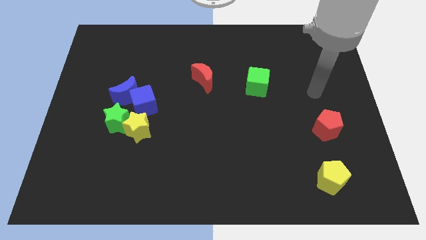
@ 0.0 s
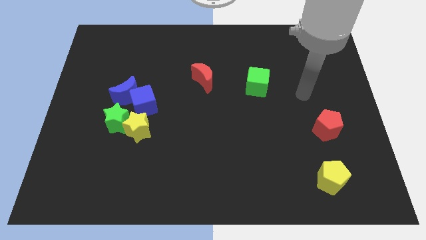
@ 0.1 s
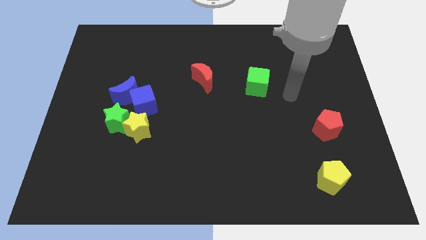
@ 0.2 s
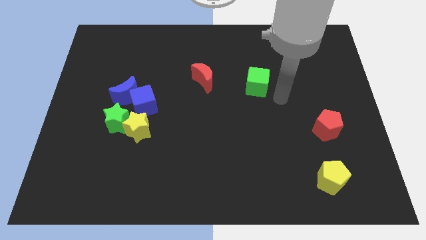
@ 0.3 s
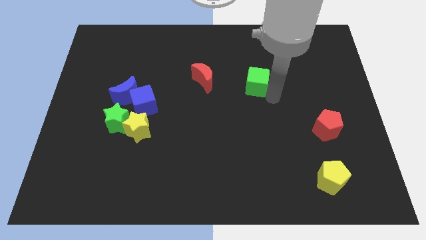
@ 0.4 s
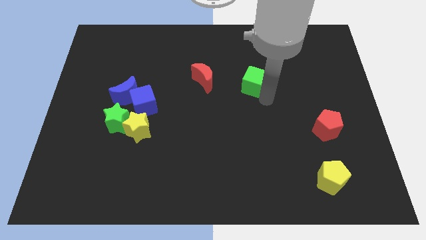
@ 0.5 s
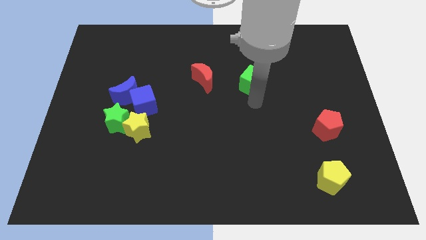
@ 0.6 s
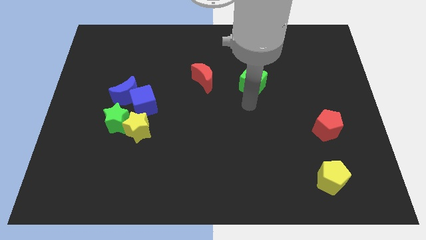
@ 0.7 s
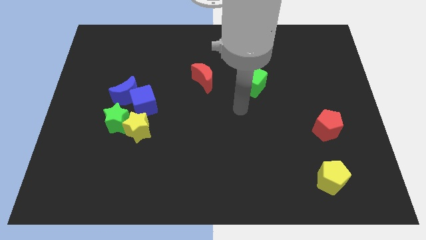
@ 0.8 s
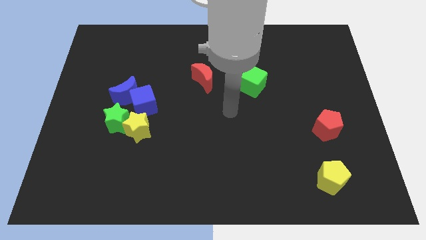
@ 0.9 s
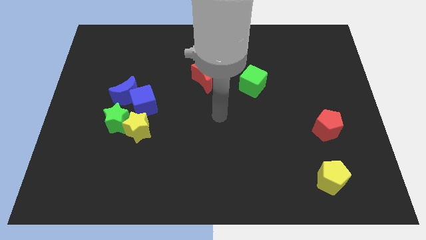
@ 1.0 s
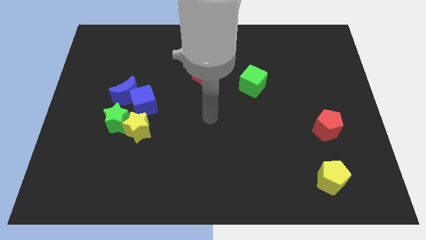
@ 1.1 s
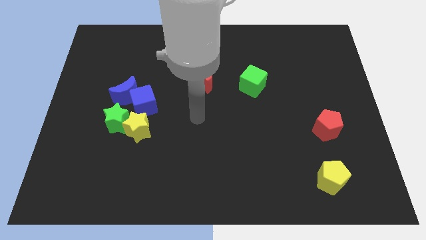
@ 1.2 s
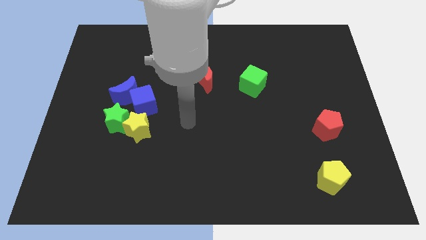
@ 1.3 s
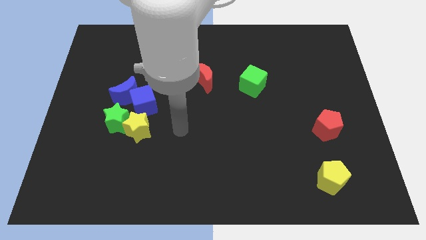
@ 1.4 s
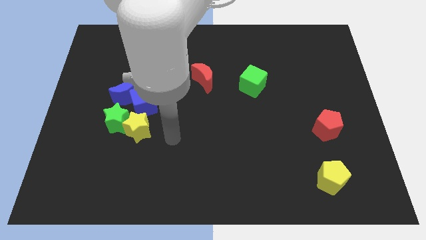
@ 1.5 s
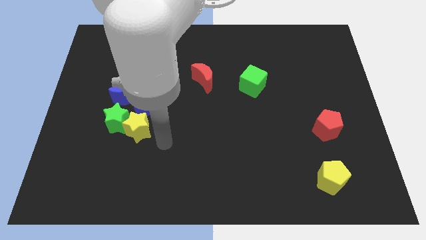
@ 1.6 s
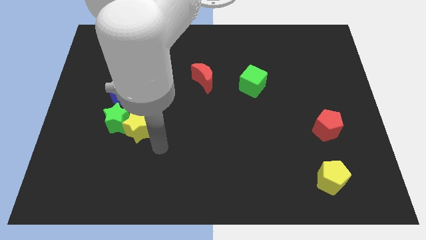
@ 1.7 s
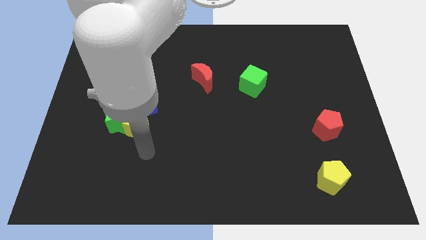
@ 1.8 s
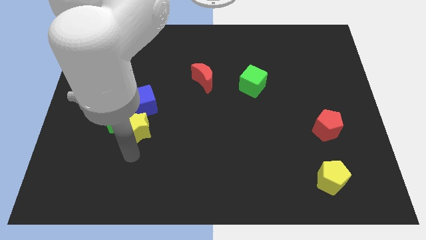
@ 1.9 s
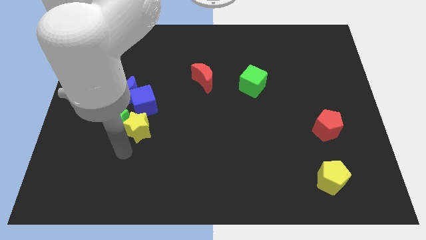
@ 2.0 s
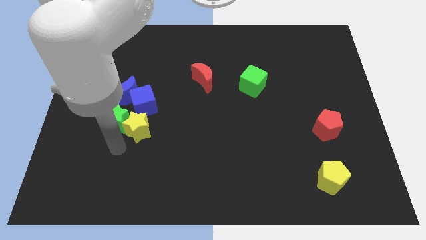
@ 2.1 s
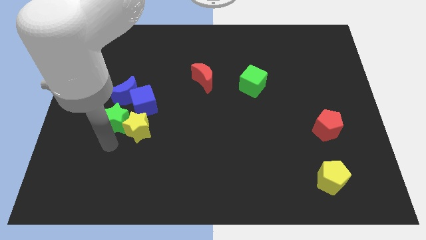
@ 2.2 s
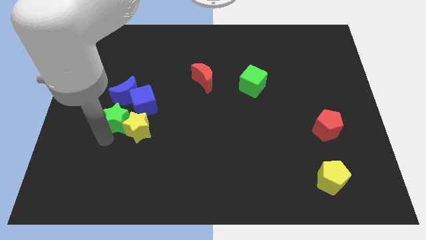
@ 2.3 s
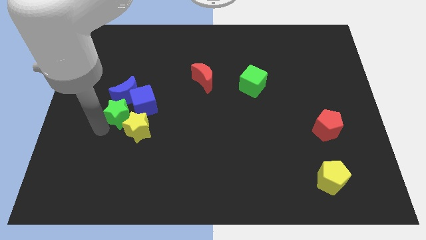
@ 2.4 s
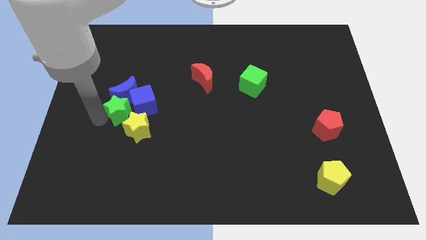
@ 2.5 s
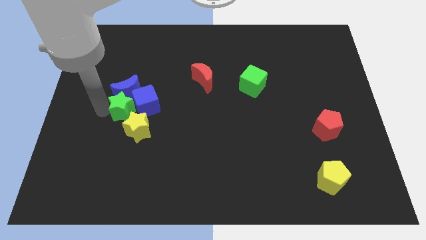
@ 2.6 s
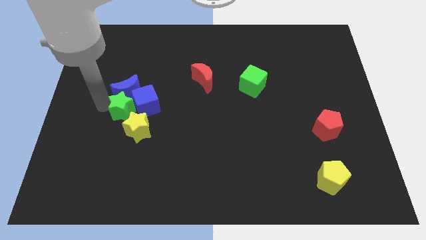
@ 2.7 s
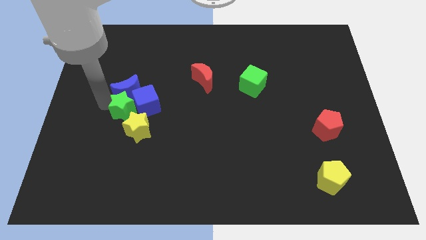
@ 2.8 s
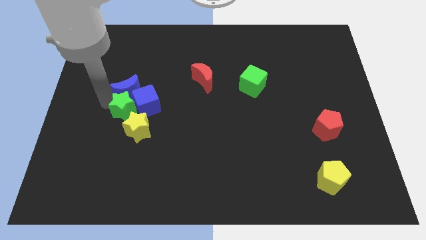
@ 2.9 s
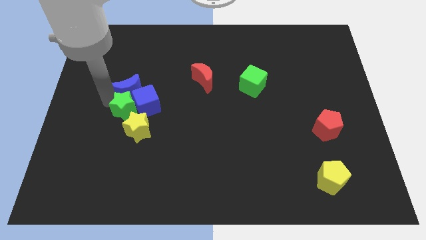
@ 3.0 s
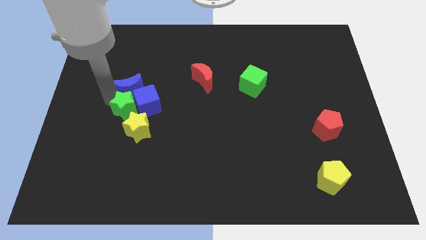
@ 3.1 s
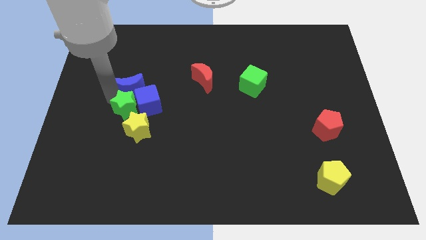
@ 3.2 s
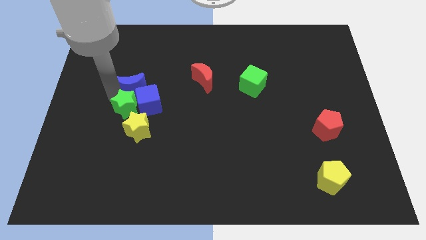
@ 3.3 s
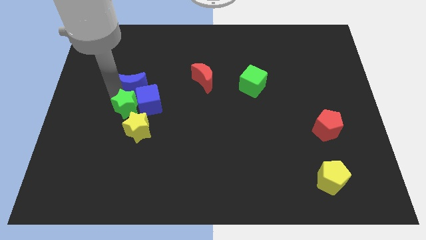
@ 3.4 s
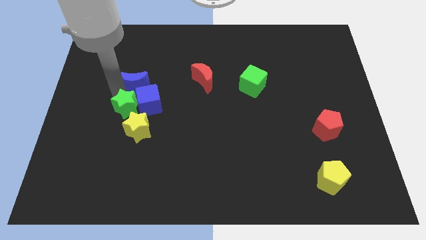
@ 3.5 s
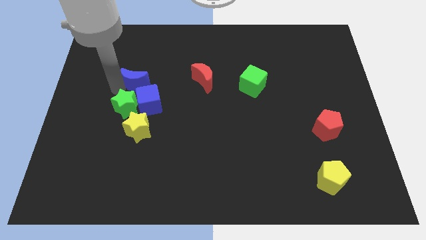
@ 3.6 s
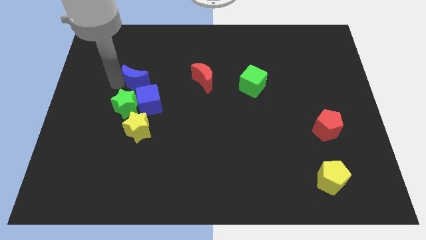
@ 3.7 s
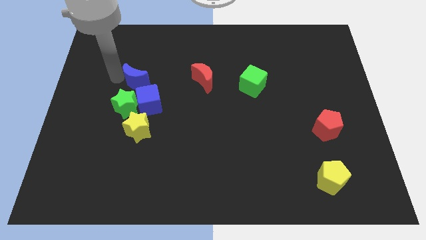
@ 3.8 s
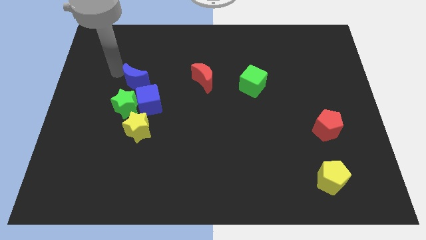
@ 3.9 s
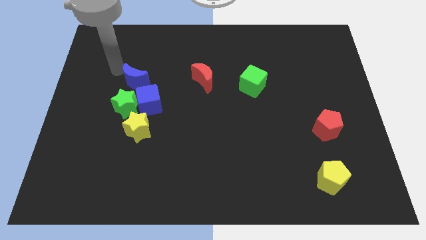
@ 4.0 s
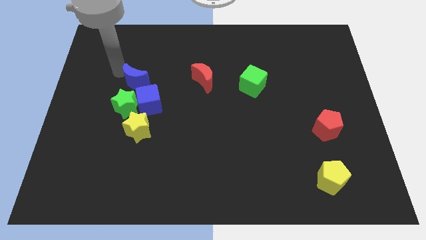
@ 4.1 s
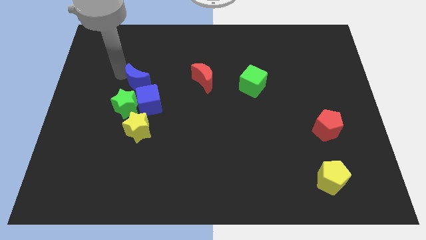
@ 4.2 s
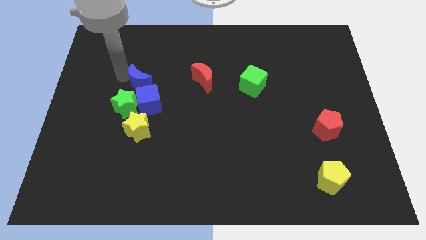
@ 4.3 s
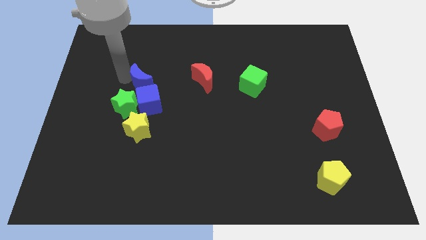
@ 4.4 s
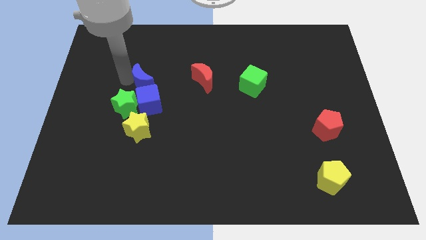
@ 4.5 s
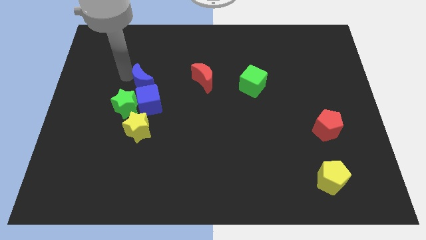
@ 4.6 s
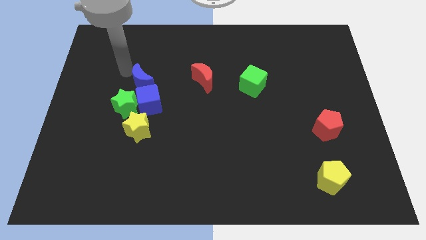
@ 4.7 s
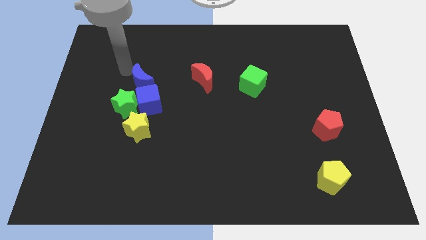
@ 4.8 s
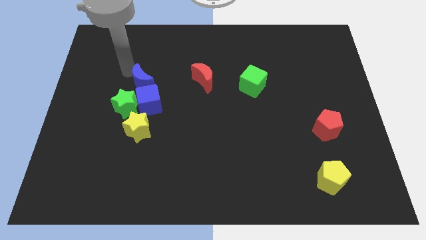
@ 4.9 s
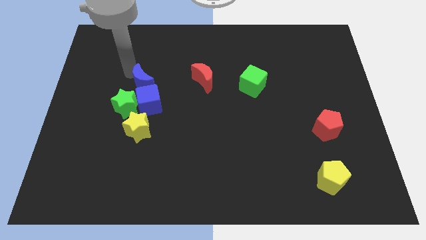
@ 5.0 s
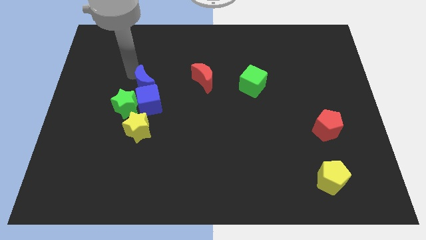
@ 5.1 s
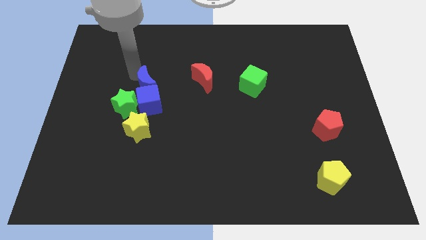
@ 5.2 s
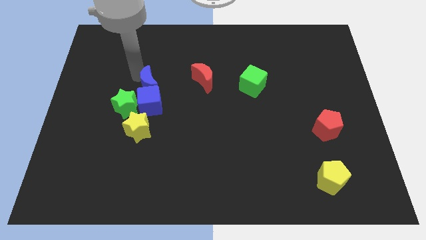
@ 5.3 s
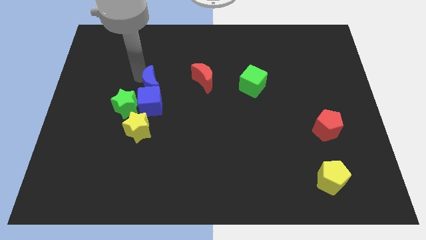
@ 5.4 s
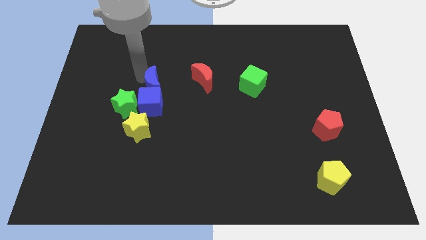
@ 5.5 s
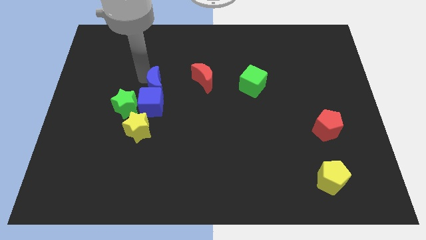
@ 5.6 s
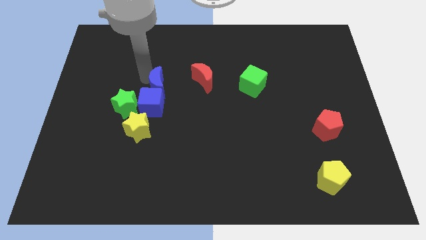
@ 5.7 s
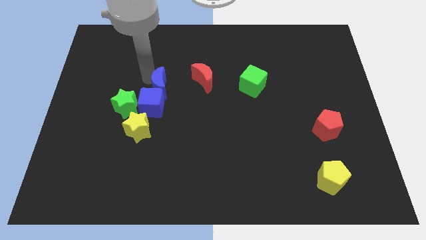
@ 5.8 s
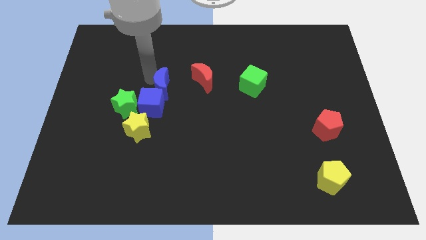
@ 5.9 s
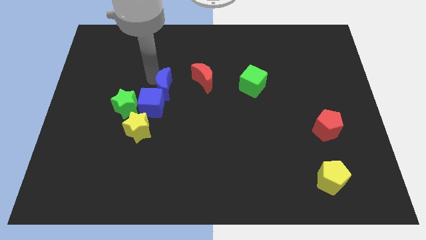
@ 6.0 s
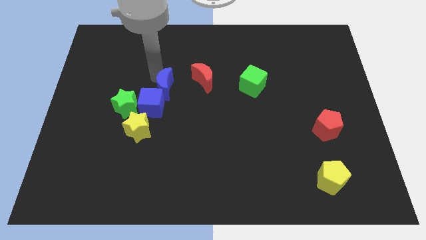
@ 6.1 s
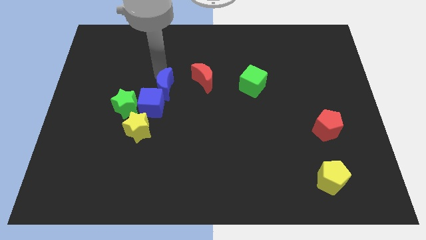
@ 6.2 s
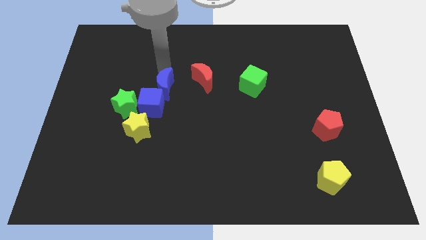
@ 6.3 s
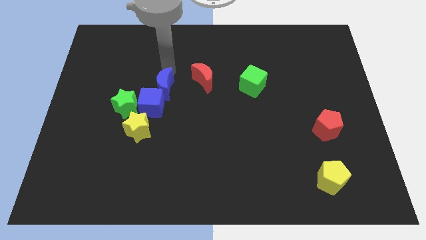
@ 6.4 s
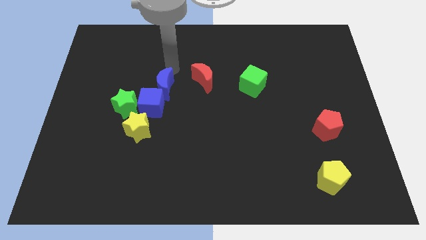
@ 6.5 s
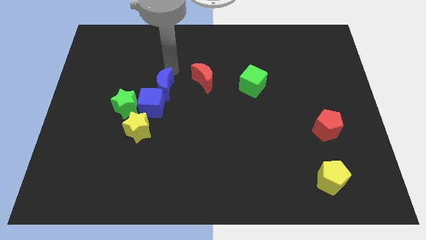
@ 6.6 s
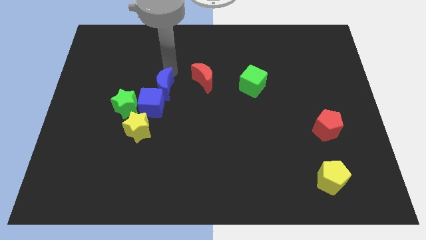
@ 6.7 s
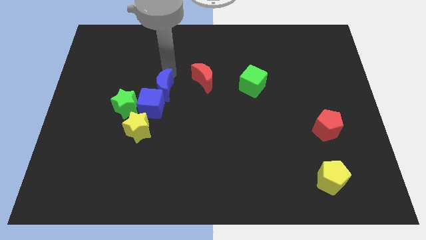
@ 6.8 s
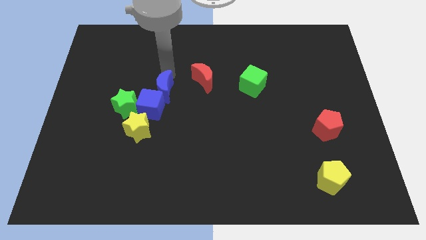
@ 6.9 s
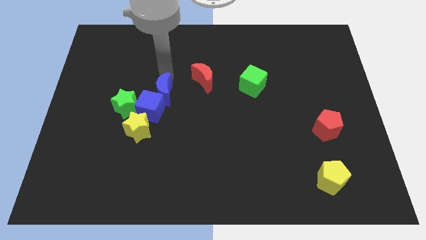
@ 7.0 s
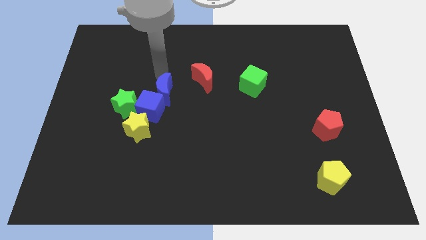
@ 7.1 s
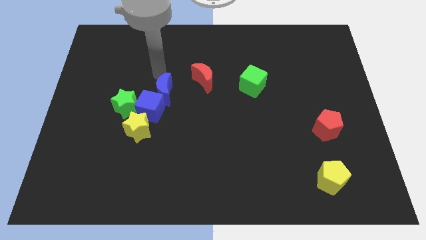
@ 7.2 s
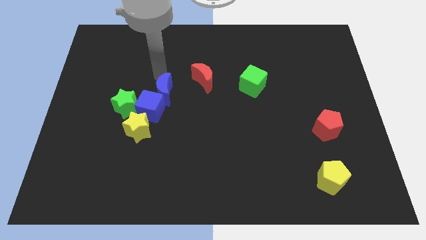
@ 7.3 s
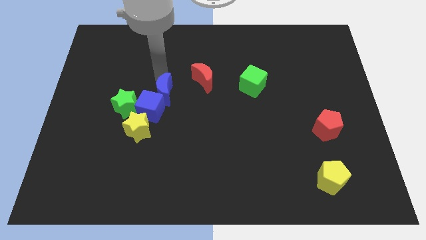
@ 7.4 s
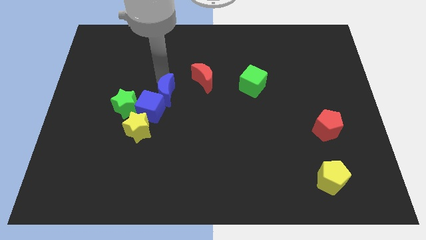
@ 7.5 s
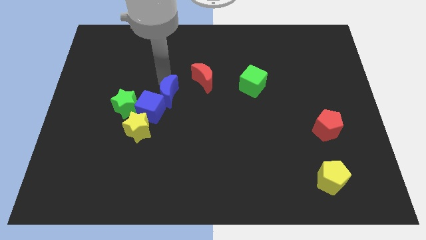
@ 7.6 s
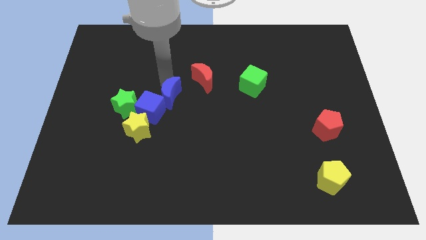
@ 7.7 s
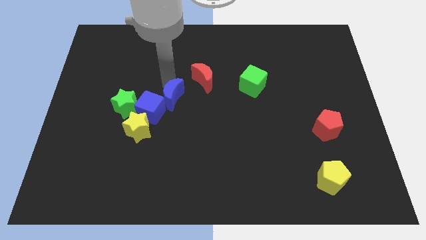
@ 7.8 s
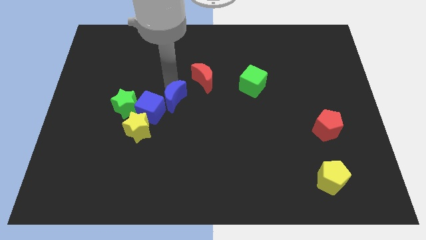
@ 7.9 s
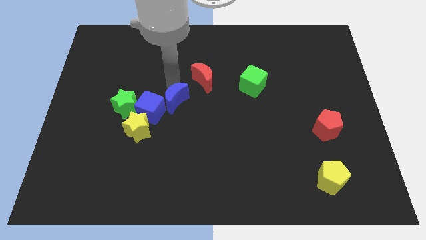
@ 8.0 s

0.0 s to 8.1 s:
push the blue moon a little down and right
